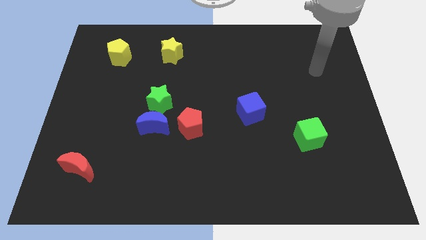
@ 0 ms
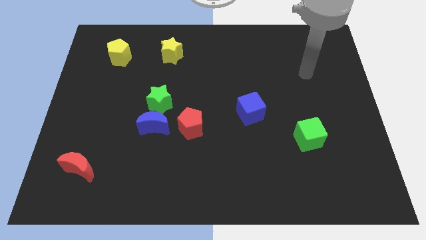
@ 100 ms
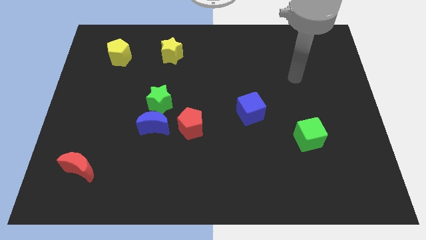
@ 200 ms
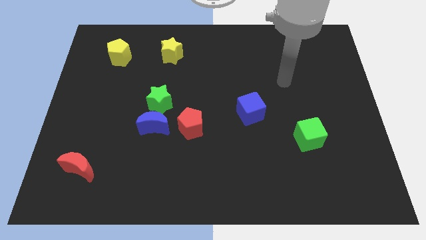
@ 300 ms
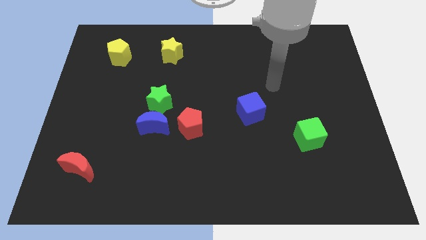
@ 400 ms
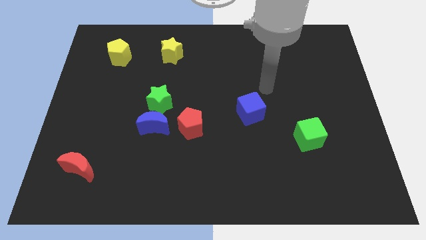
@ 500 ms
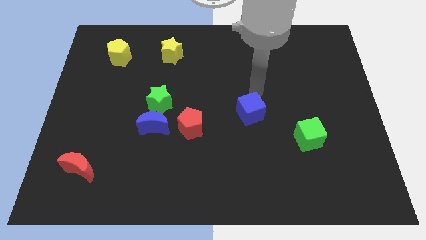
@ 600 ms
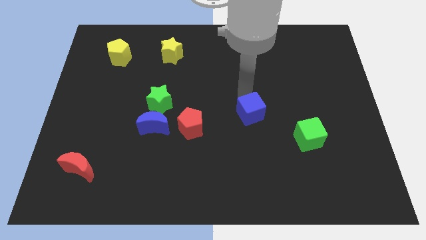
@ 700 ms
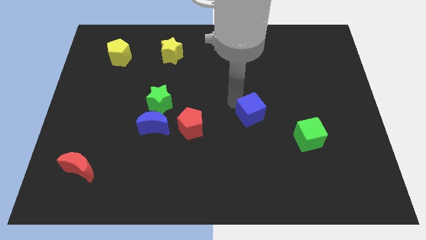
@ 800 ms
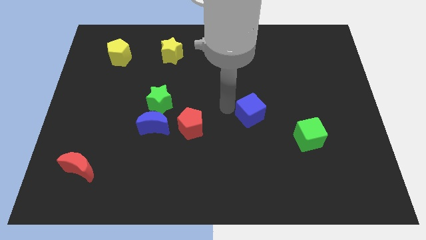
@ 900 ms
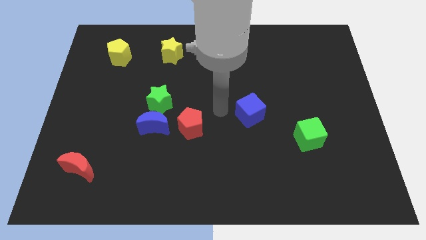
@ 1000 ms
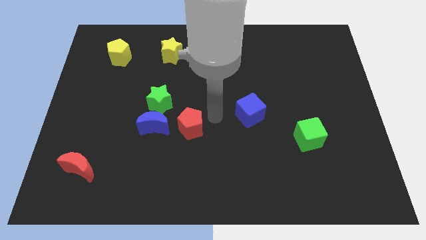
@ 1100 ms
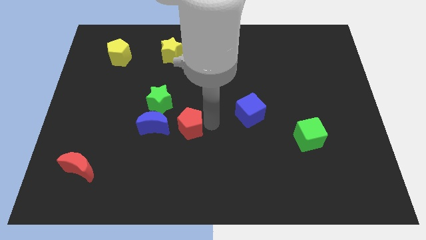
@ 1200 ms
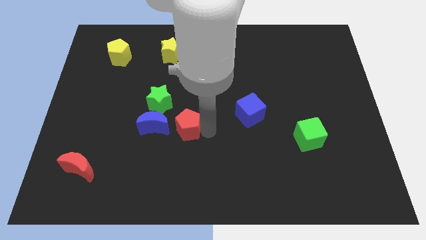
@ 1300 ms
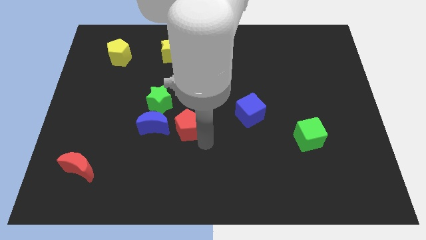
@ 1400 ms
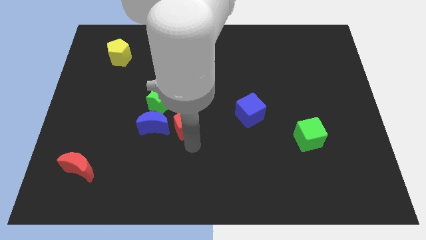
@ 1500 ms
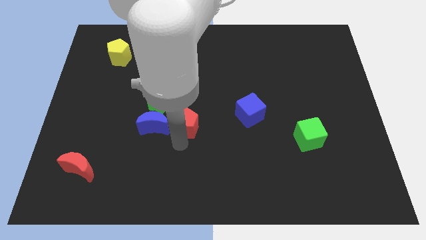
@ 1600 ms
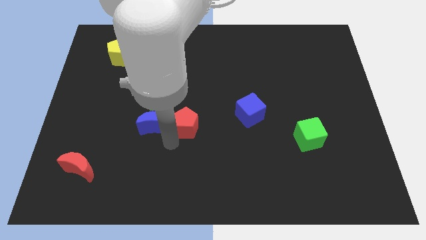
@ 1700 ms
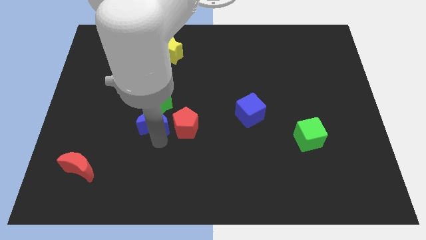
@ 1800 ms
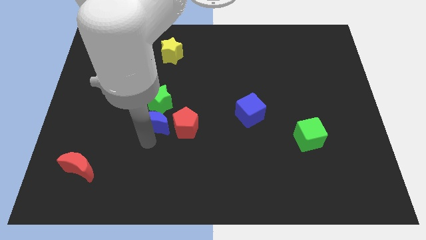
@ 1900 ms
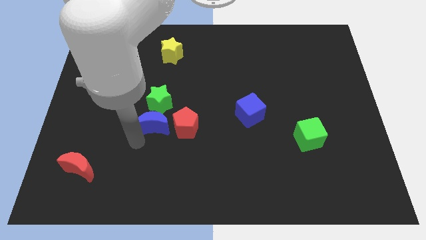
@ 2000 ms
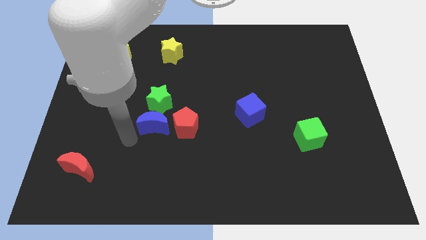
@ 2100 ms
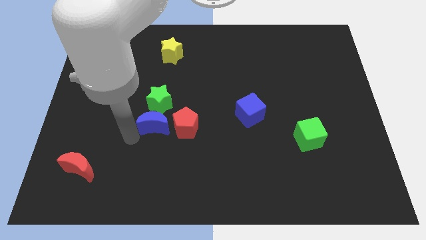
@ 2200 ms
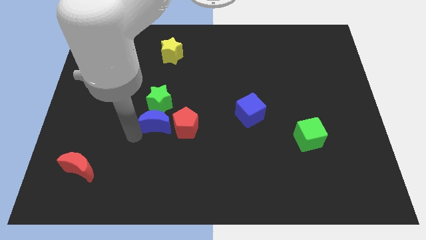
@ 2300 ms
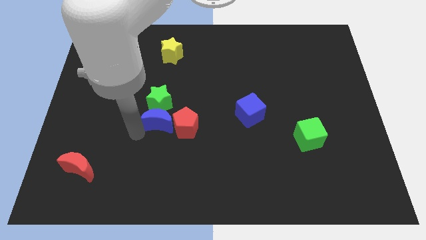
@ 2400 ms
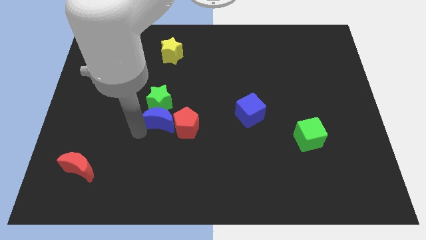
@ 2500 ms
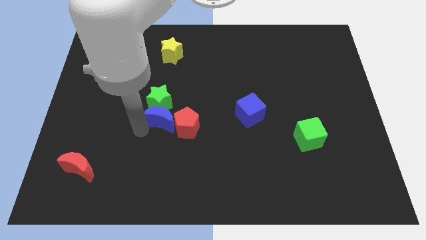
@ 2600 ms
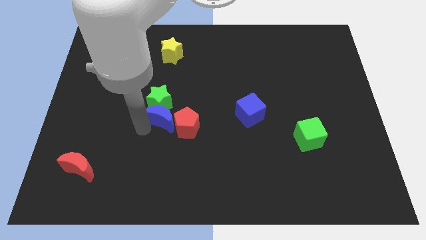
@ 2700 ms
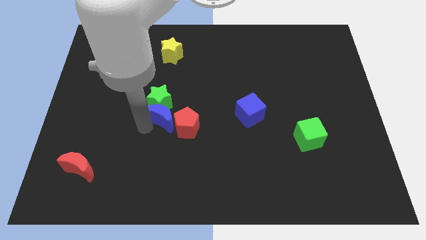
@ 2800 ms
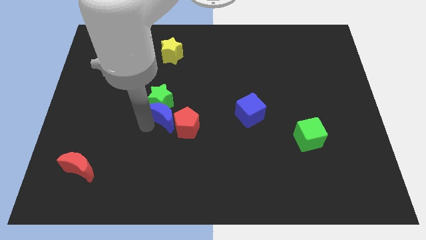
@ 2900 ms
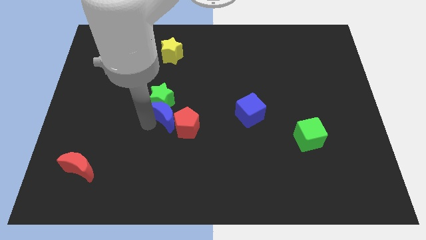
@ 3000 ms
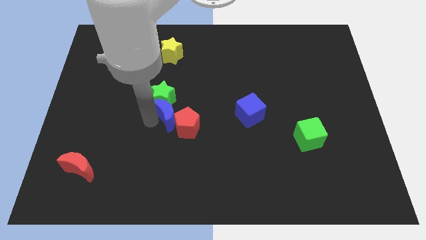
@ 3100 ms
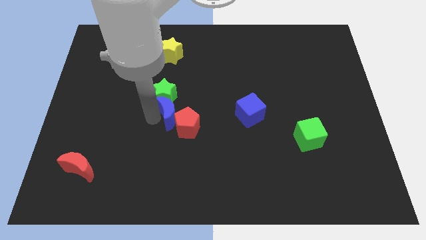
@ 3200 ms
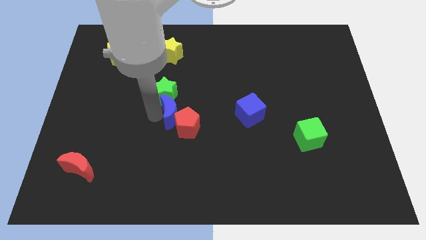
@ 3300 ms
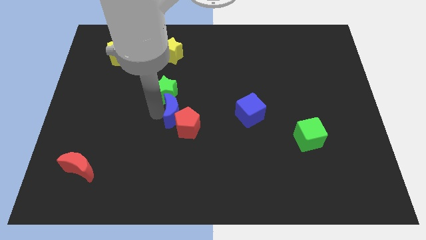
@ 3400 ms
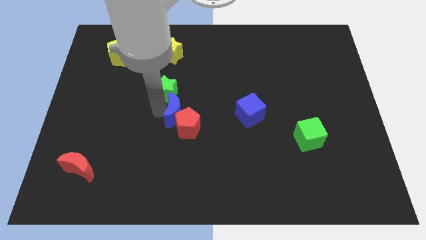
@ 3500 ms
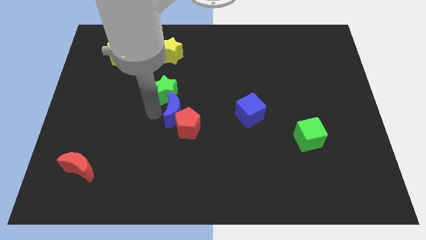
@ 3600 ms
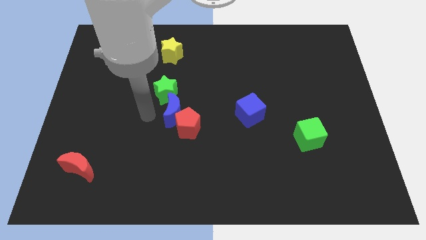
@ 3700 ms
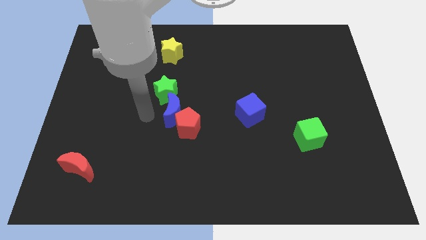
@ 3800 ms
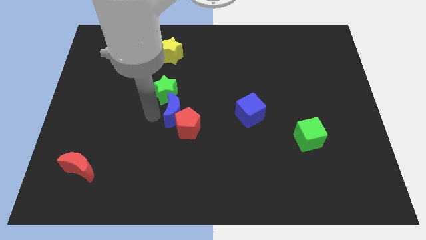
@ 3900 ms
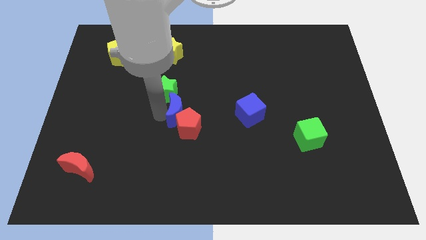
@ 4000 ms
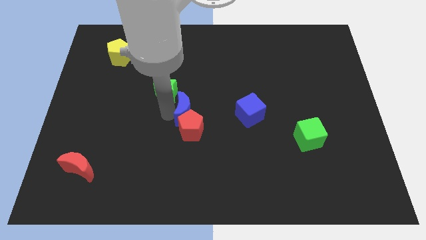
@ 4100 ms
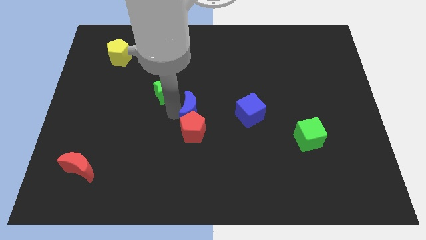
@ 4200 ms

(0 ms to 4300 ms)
slightly push the blue moon to the right

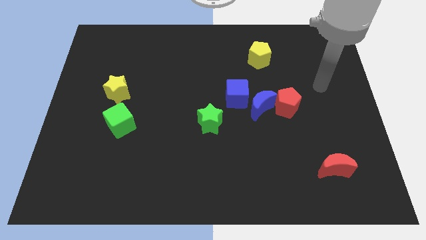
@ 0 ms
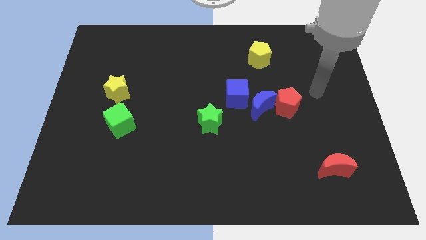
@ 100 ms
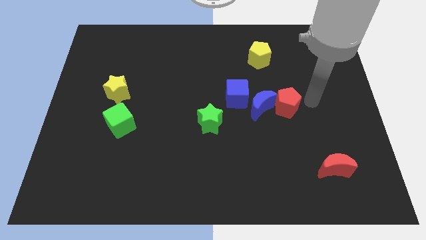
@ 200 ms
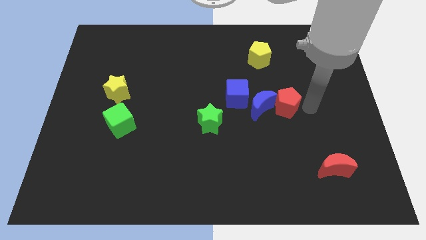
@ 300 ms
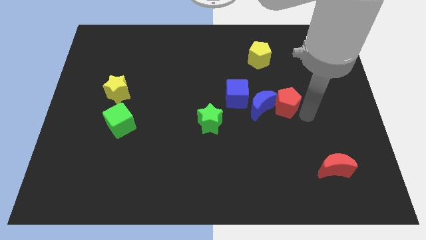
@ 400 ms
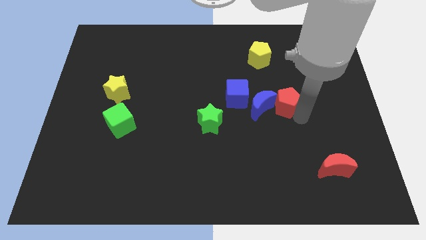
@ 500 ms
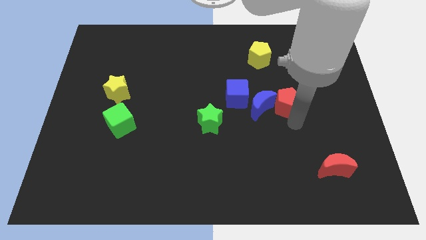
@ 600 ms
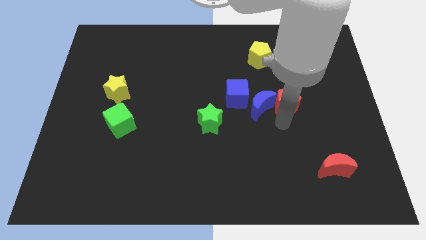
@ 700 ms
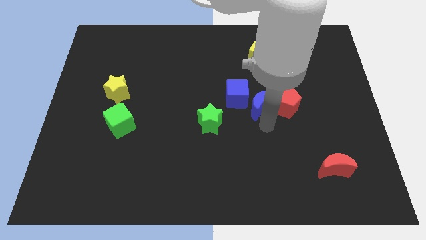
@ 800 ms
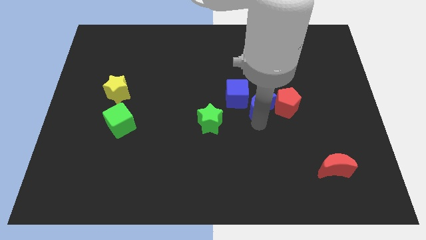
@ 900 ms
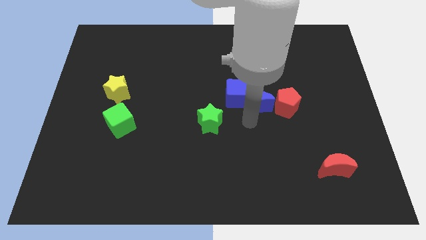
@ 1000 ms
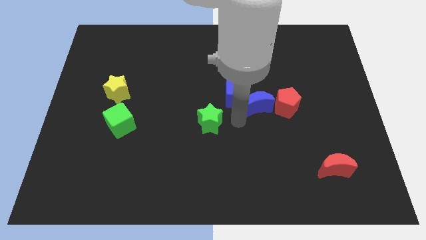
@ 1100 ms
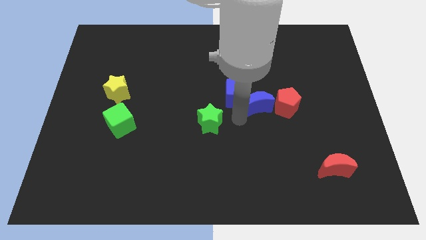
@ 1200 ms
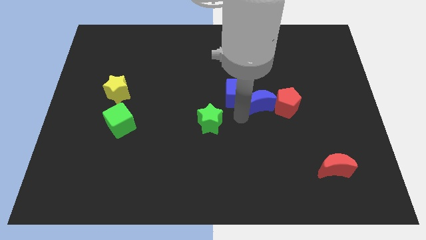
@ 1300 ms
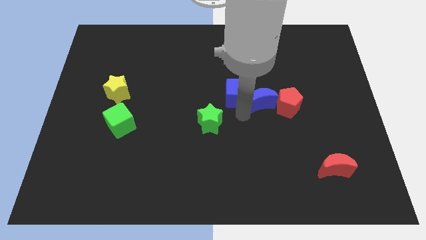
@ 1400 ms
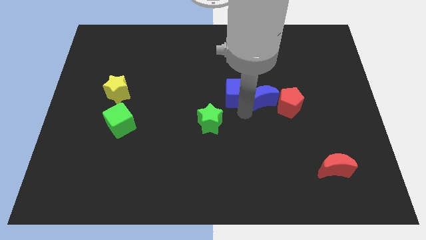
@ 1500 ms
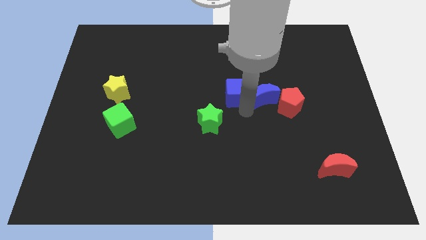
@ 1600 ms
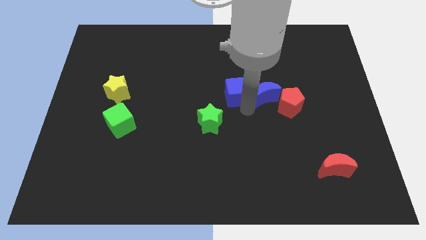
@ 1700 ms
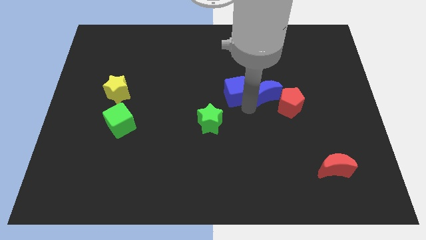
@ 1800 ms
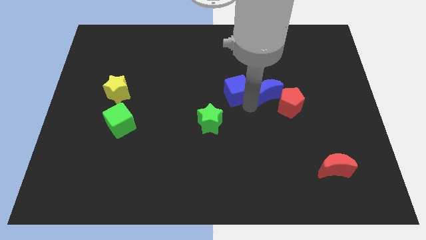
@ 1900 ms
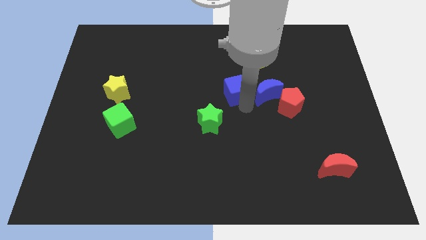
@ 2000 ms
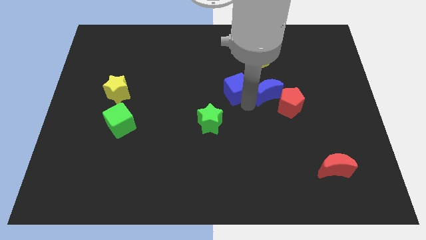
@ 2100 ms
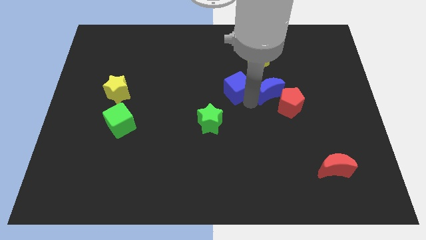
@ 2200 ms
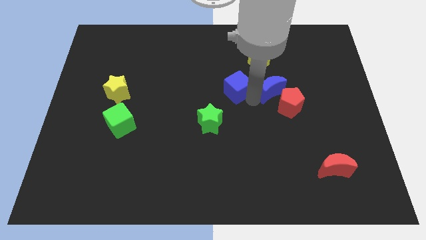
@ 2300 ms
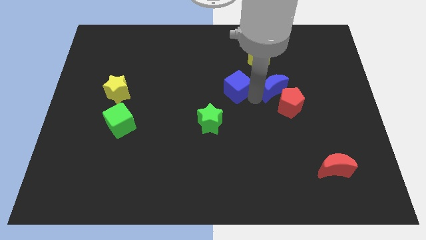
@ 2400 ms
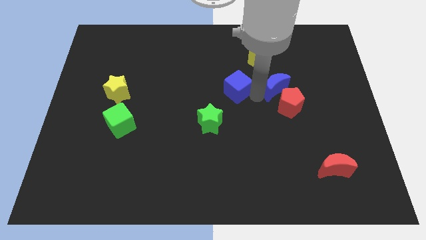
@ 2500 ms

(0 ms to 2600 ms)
slide the blue moon up and to the right diagonally a little bit

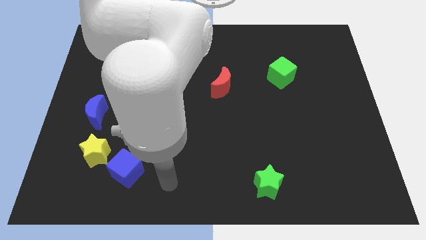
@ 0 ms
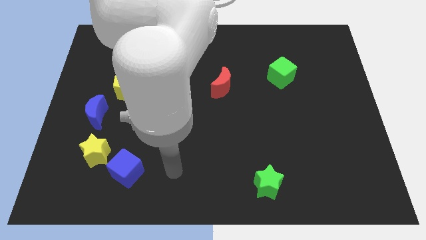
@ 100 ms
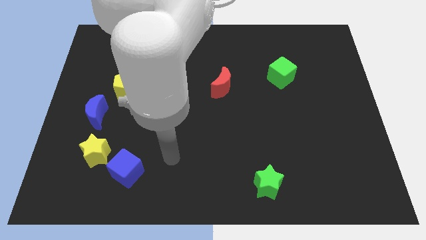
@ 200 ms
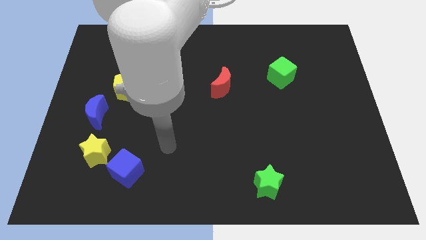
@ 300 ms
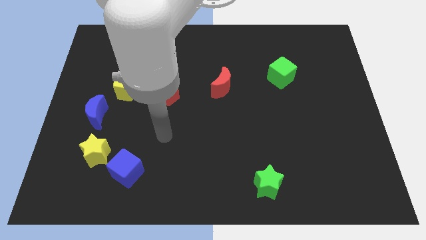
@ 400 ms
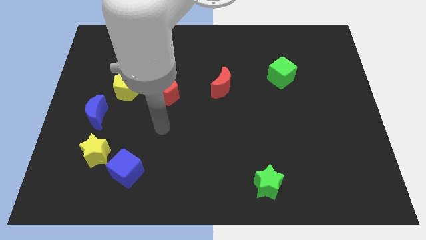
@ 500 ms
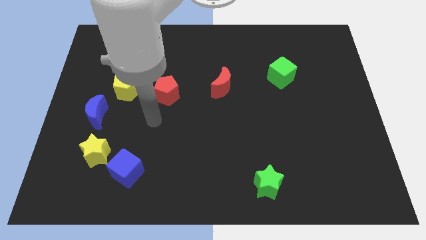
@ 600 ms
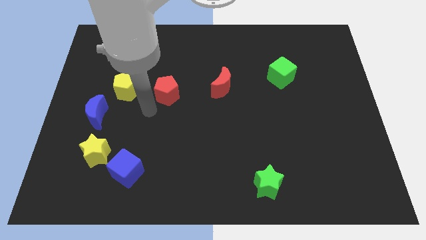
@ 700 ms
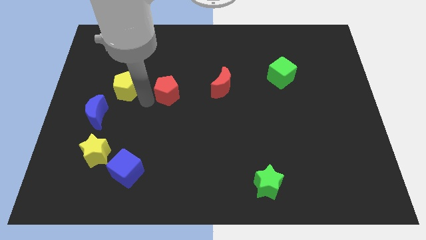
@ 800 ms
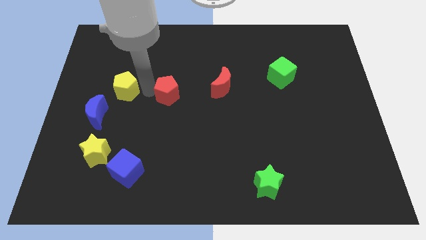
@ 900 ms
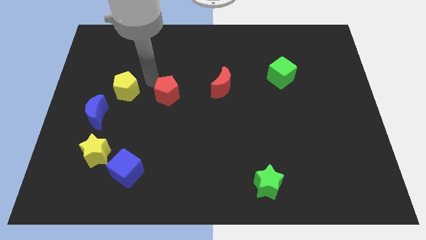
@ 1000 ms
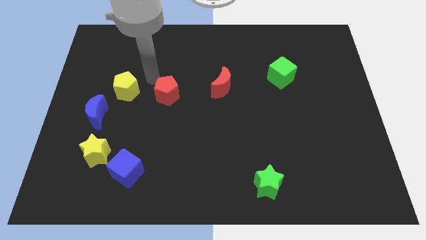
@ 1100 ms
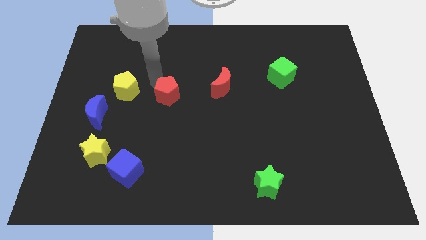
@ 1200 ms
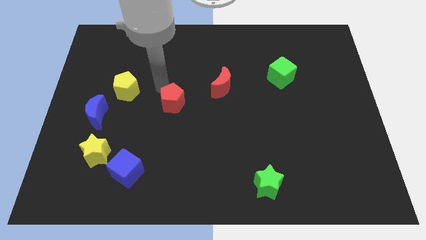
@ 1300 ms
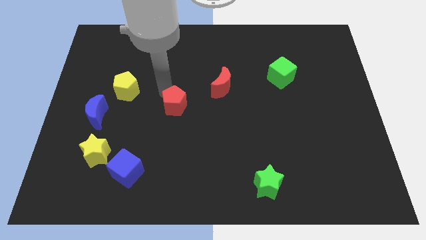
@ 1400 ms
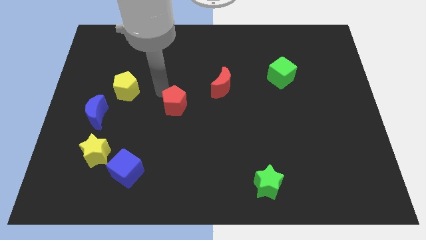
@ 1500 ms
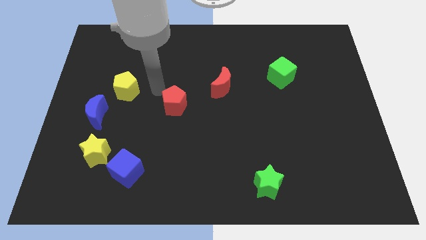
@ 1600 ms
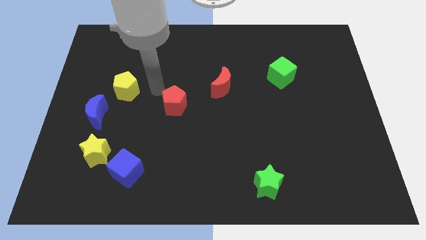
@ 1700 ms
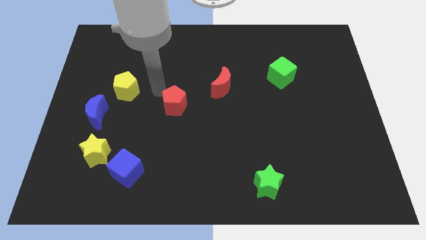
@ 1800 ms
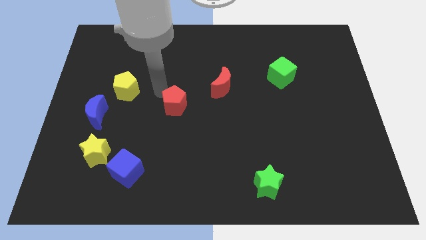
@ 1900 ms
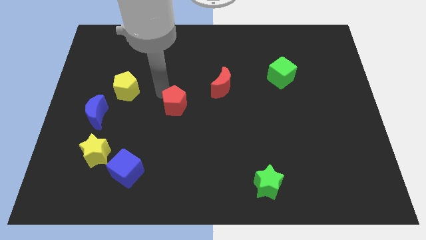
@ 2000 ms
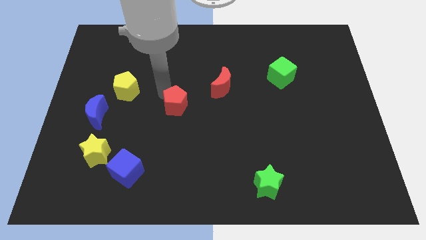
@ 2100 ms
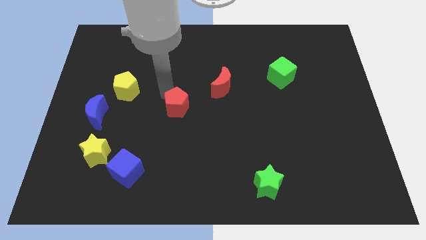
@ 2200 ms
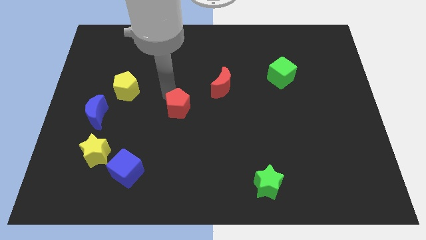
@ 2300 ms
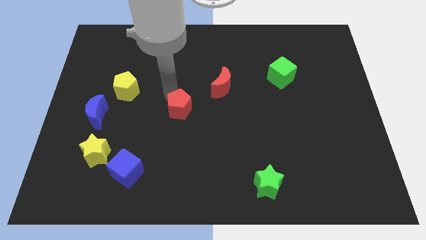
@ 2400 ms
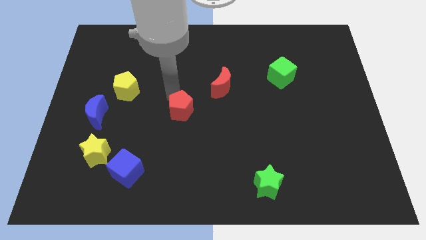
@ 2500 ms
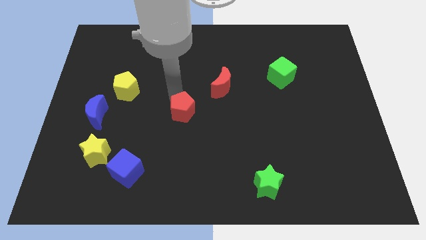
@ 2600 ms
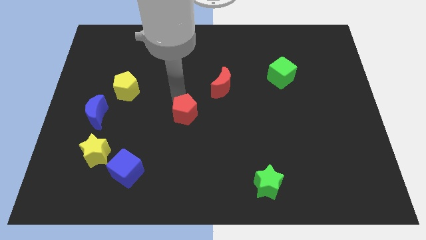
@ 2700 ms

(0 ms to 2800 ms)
move the red pentagon a little downwards and right diagonally
